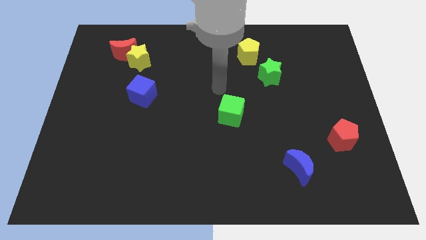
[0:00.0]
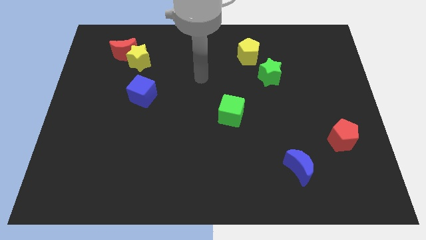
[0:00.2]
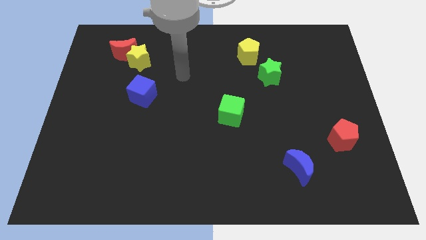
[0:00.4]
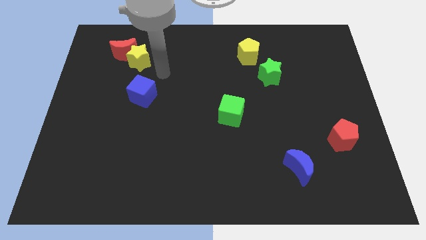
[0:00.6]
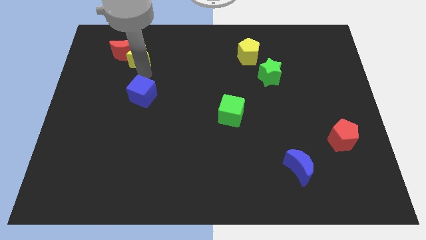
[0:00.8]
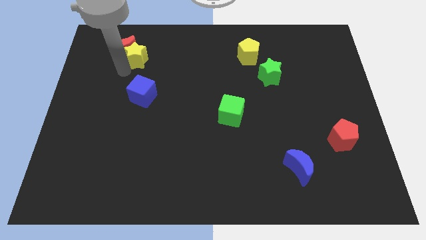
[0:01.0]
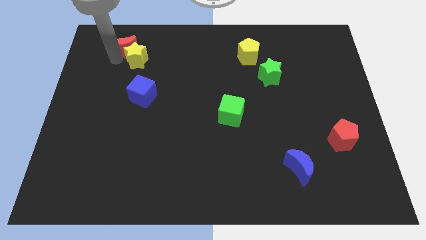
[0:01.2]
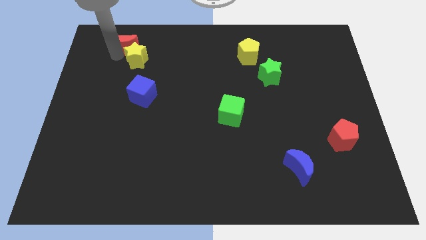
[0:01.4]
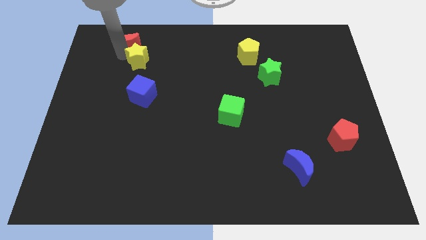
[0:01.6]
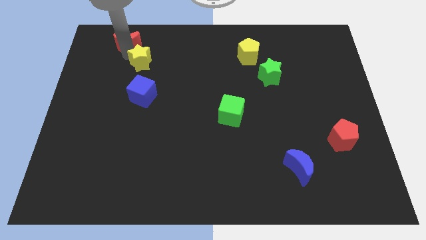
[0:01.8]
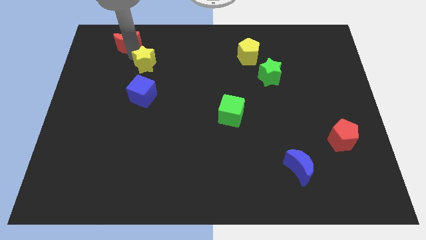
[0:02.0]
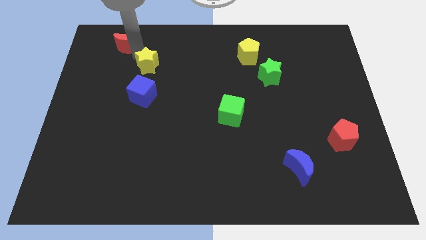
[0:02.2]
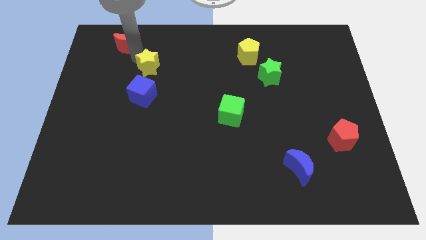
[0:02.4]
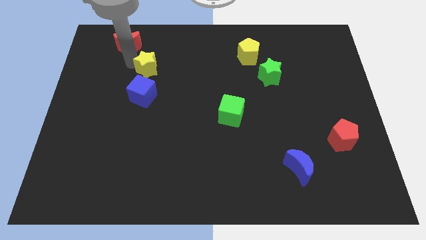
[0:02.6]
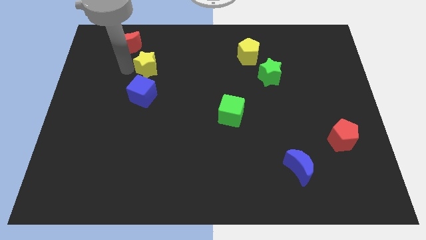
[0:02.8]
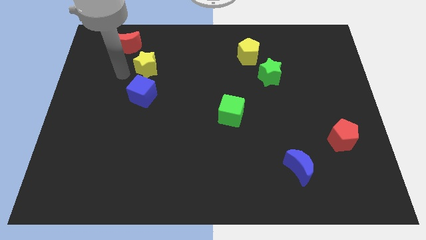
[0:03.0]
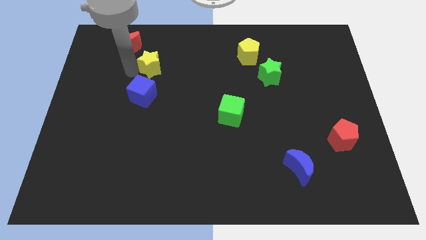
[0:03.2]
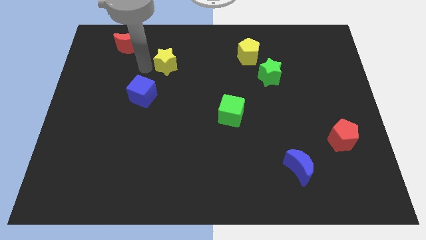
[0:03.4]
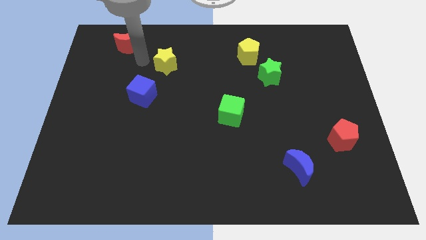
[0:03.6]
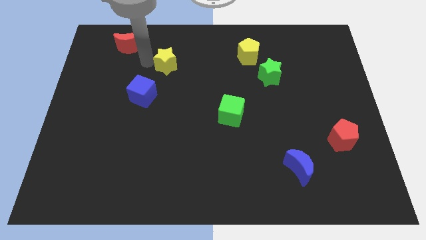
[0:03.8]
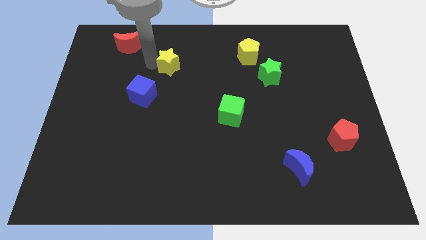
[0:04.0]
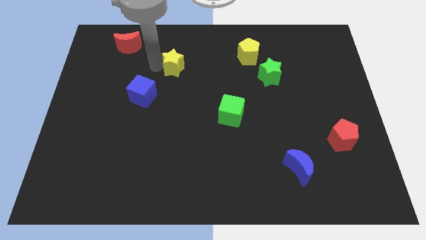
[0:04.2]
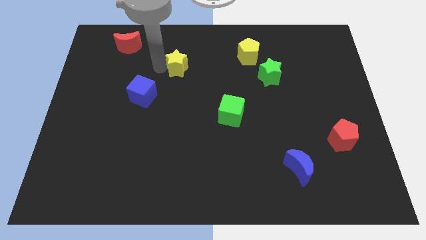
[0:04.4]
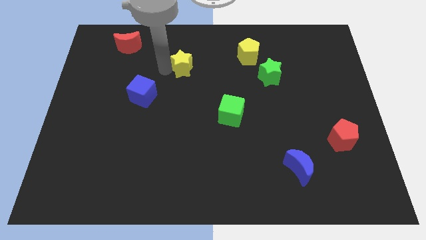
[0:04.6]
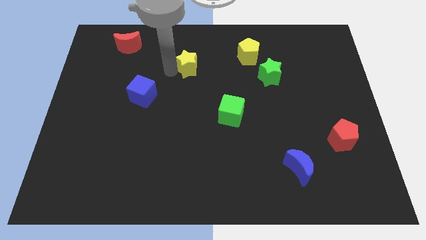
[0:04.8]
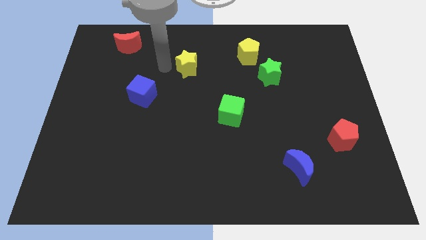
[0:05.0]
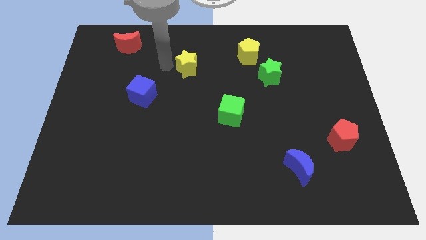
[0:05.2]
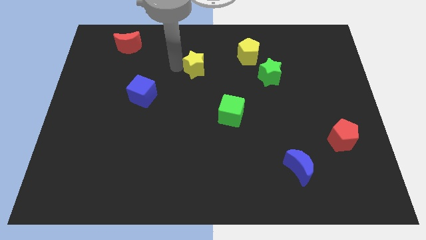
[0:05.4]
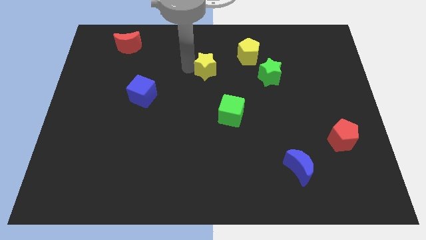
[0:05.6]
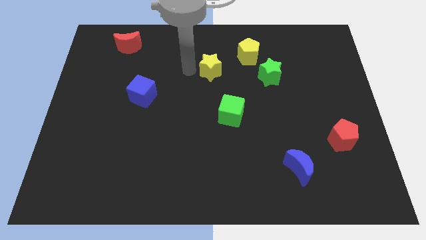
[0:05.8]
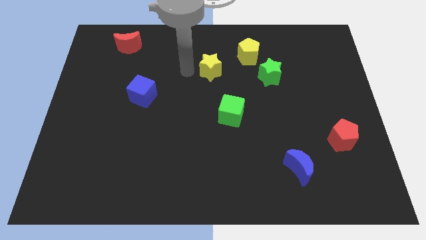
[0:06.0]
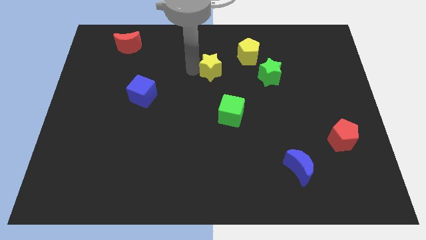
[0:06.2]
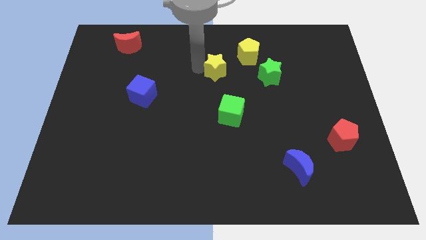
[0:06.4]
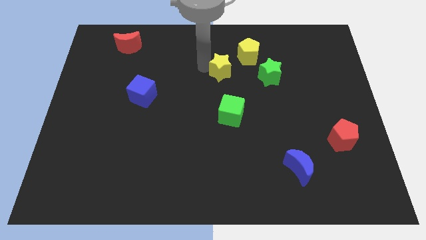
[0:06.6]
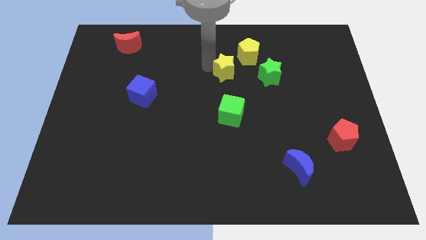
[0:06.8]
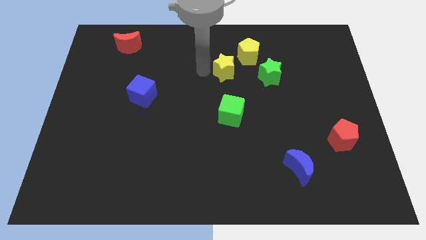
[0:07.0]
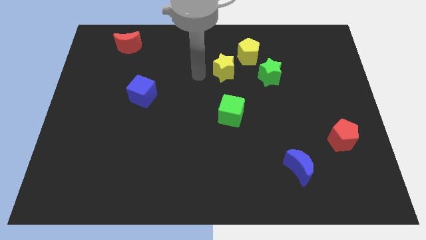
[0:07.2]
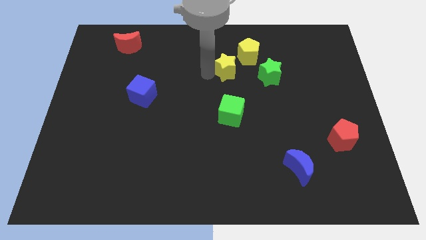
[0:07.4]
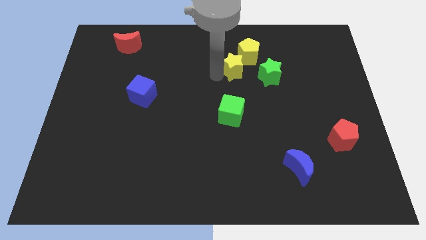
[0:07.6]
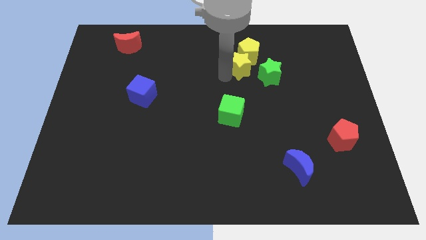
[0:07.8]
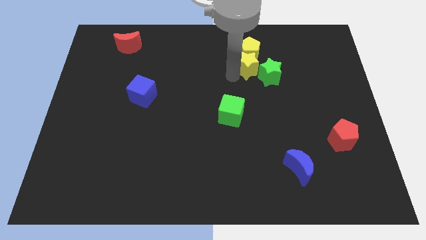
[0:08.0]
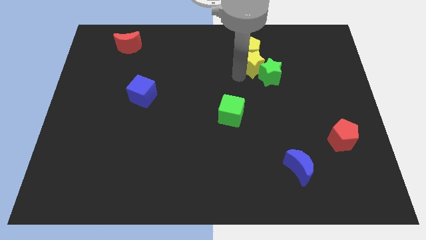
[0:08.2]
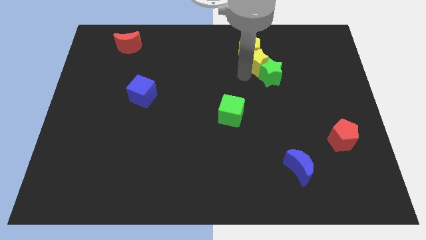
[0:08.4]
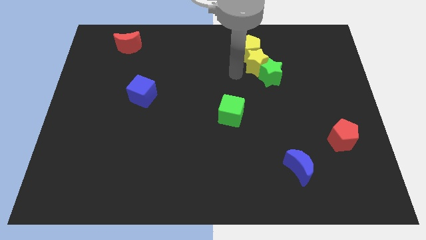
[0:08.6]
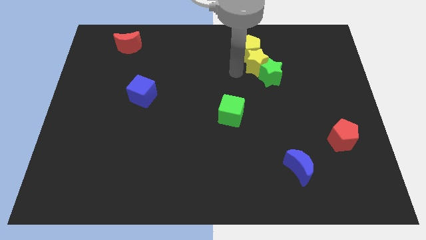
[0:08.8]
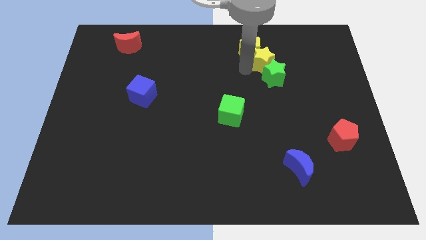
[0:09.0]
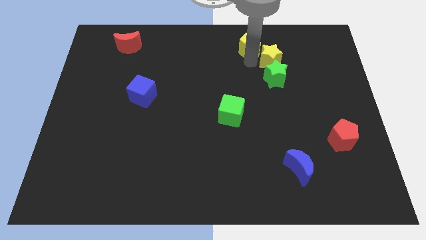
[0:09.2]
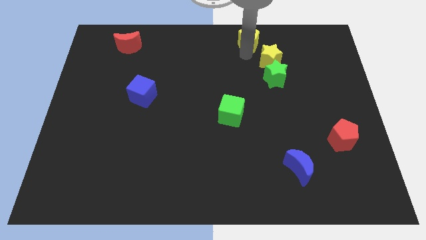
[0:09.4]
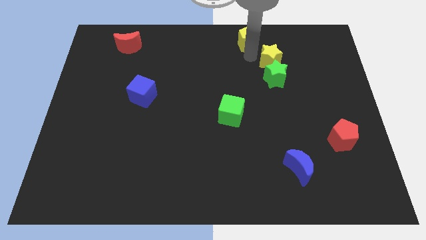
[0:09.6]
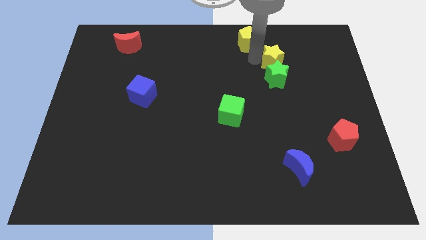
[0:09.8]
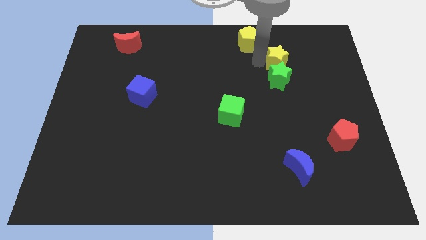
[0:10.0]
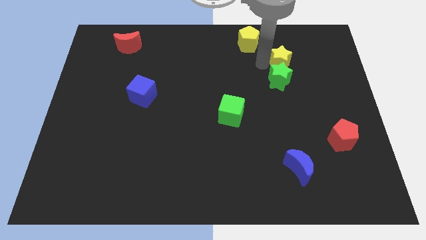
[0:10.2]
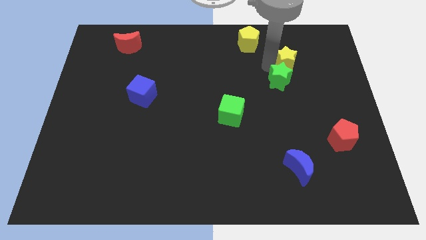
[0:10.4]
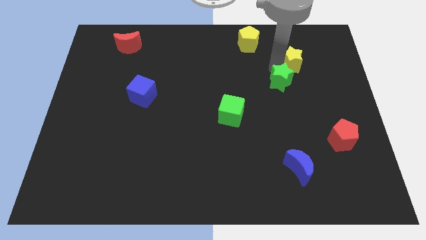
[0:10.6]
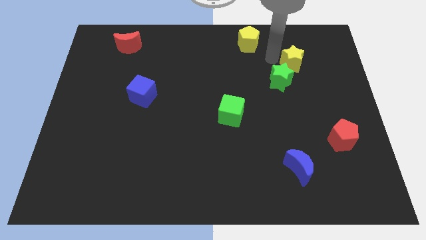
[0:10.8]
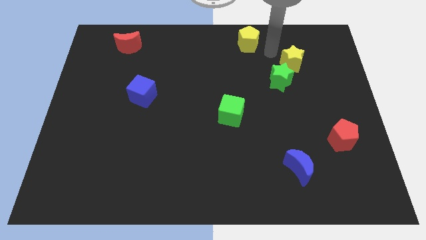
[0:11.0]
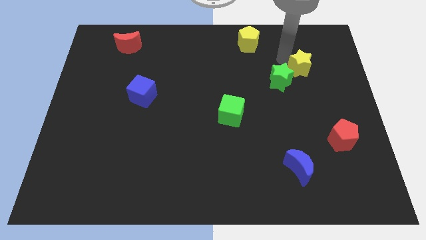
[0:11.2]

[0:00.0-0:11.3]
put the yellow star to the right side of the green star

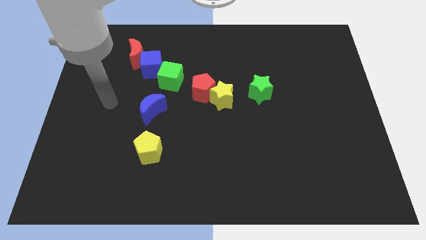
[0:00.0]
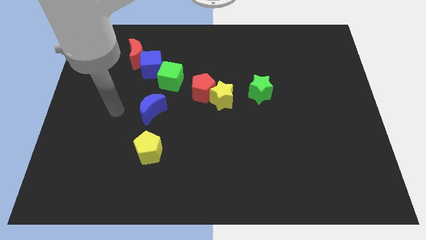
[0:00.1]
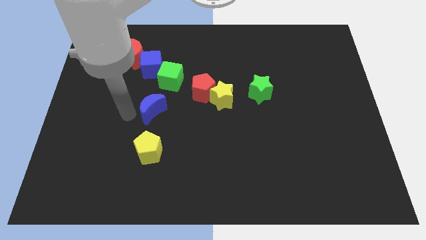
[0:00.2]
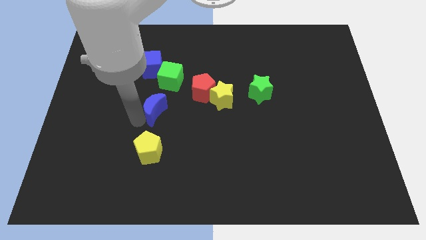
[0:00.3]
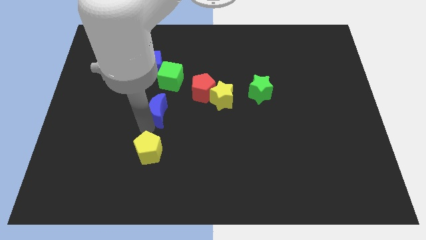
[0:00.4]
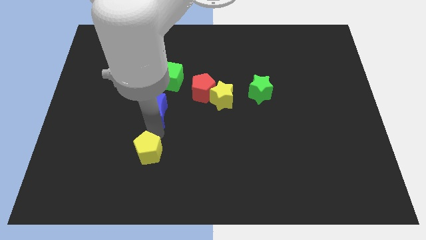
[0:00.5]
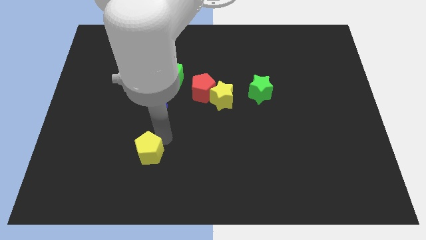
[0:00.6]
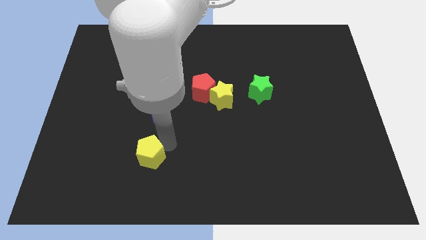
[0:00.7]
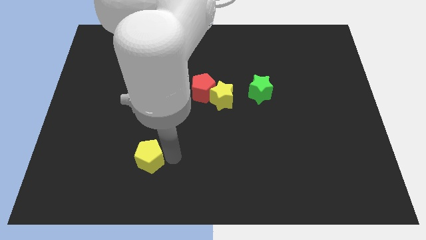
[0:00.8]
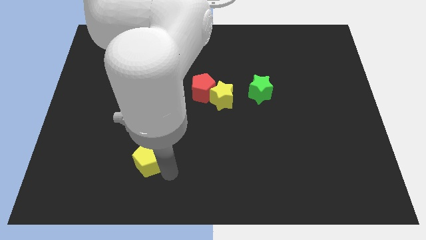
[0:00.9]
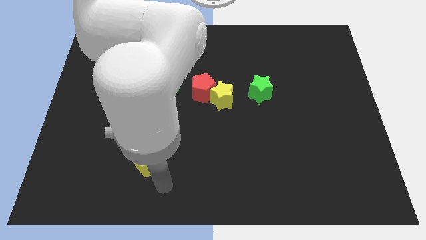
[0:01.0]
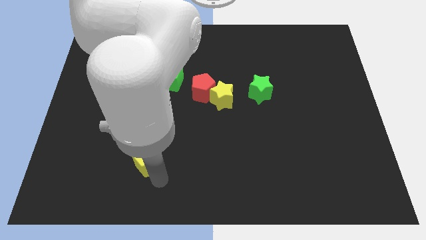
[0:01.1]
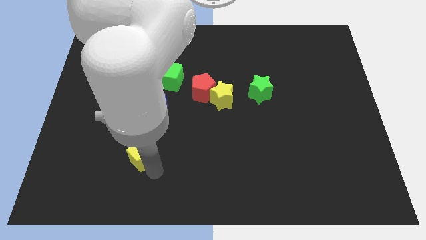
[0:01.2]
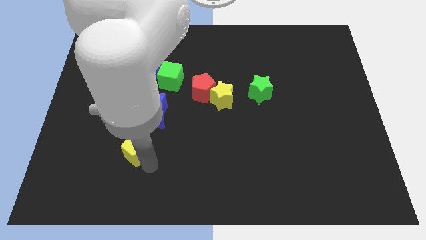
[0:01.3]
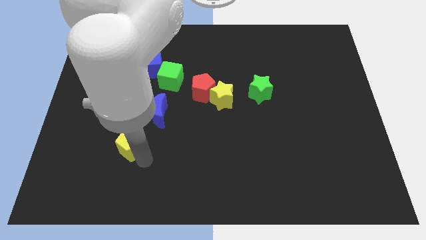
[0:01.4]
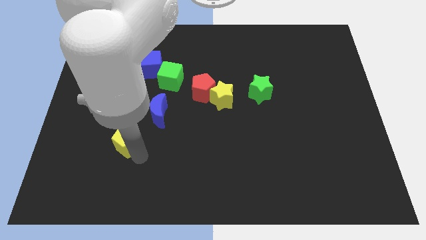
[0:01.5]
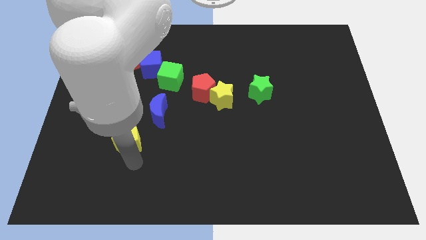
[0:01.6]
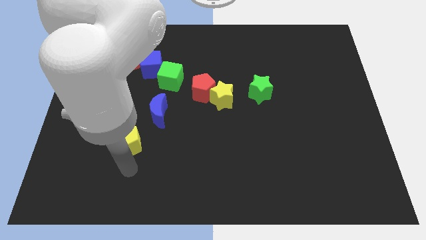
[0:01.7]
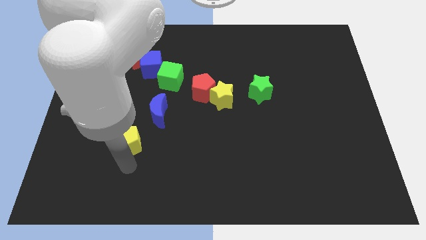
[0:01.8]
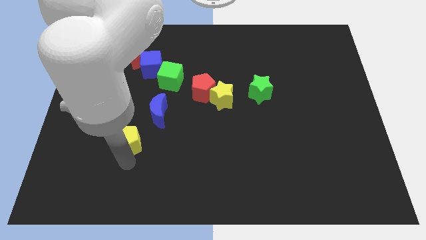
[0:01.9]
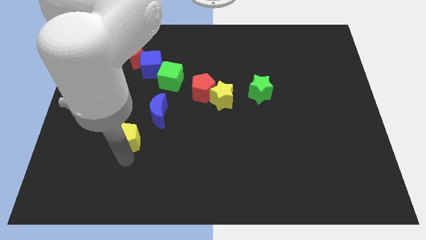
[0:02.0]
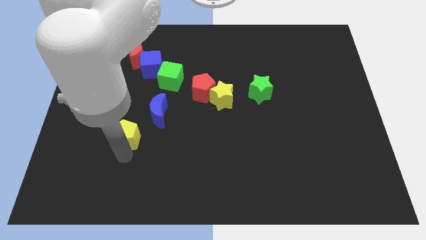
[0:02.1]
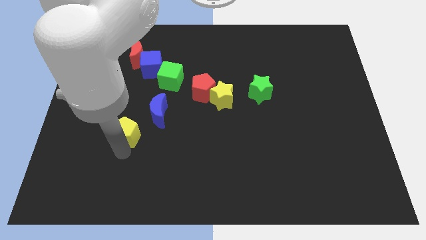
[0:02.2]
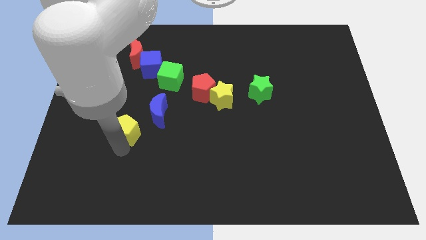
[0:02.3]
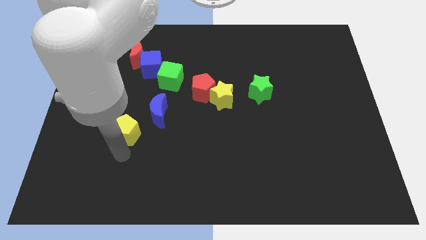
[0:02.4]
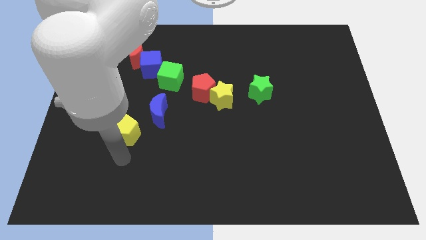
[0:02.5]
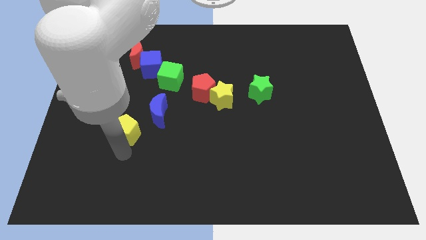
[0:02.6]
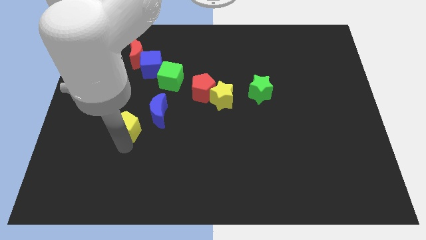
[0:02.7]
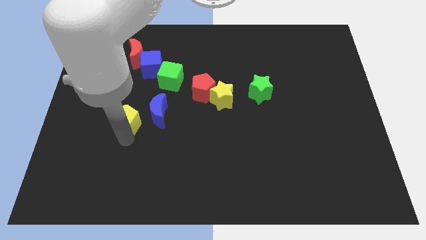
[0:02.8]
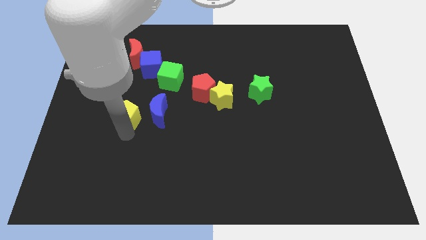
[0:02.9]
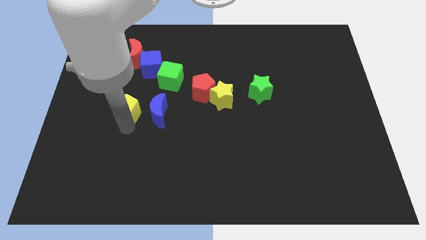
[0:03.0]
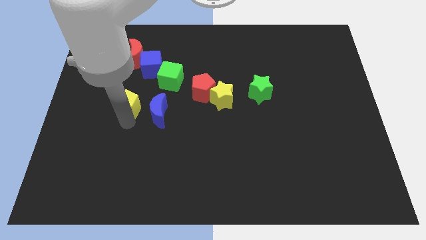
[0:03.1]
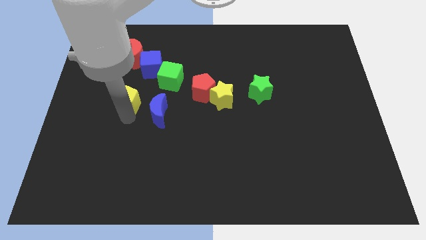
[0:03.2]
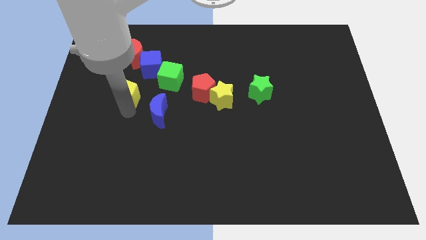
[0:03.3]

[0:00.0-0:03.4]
push the yellow pentagon to the bottom left side of the blue cube
